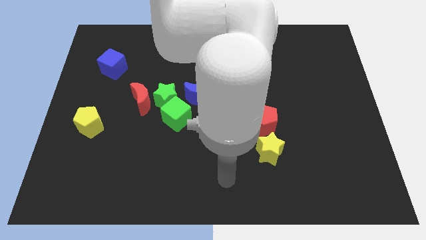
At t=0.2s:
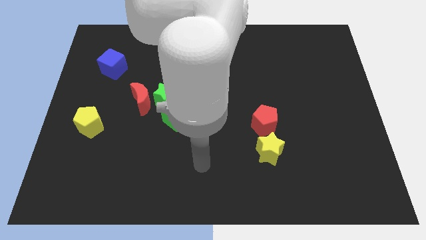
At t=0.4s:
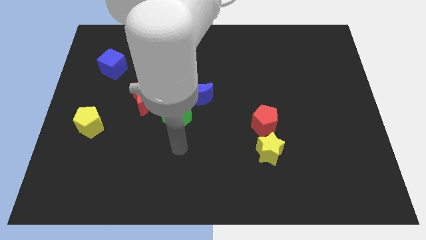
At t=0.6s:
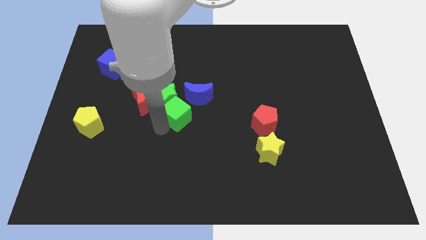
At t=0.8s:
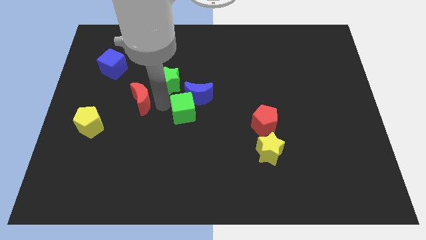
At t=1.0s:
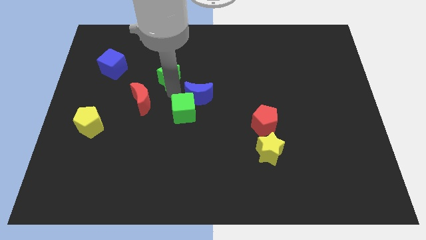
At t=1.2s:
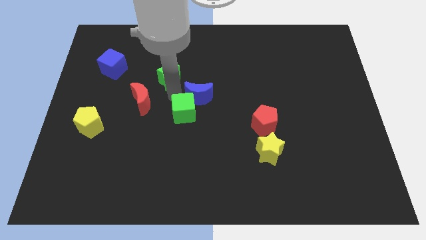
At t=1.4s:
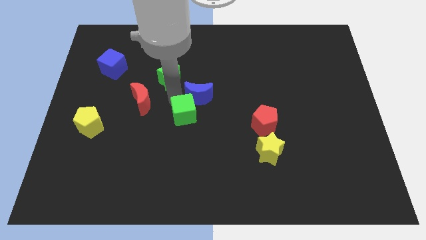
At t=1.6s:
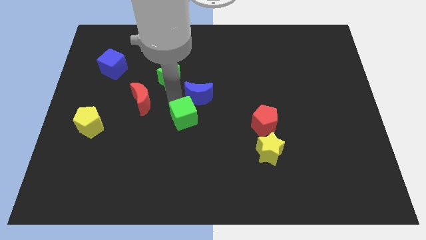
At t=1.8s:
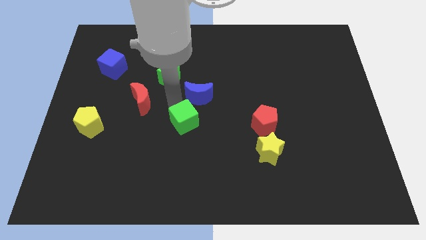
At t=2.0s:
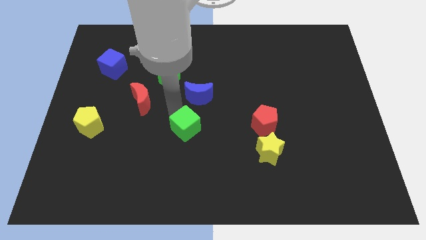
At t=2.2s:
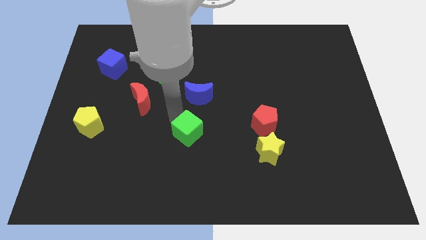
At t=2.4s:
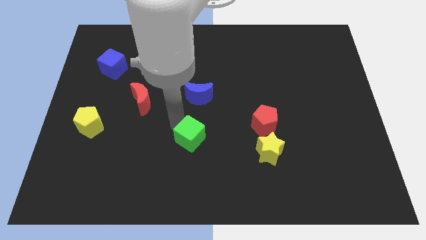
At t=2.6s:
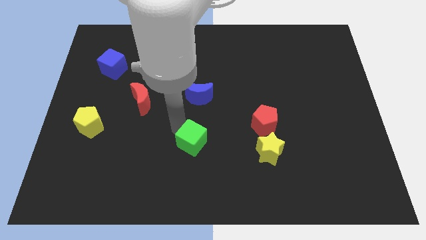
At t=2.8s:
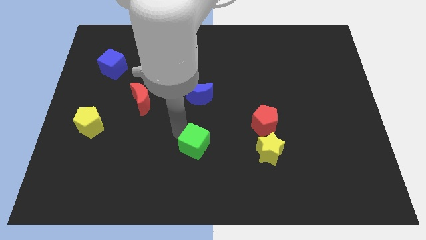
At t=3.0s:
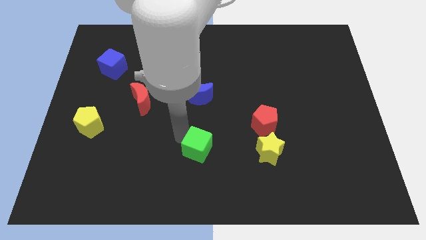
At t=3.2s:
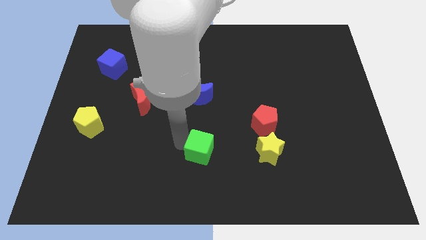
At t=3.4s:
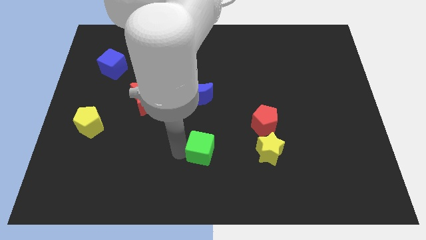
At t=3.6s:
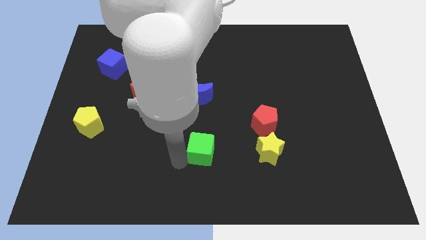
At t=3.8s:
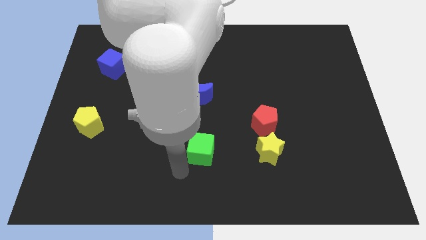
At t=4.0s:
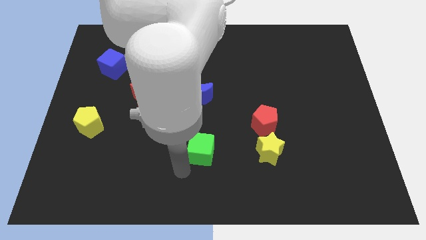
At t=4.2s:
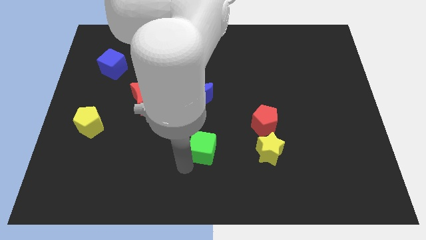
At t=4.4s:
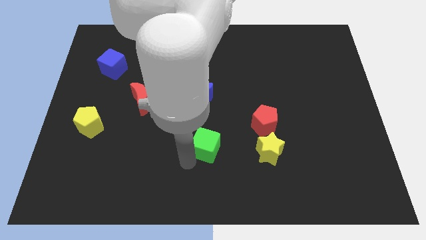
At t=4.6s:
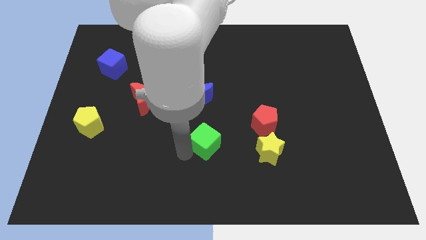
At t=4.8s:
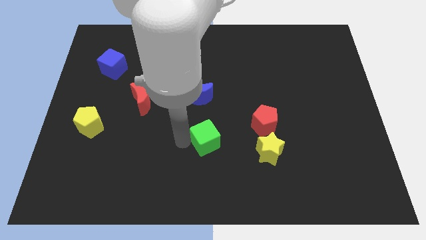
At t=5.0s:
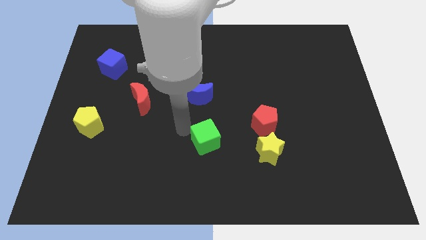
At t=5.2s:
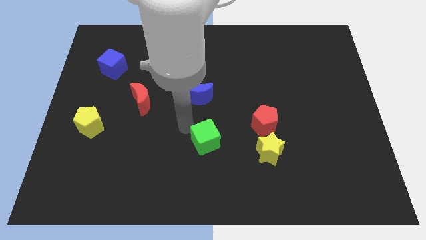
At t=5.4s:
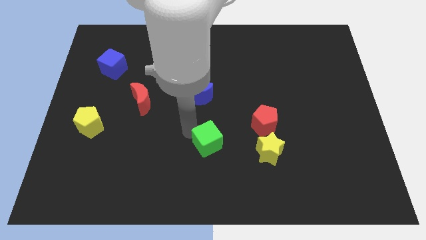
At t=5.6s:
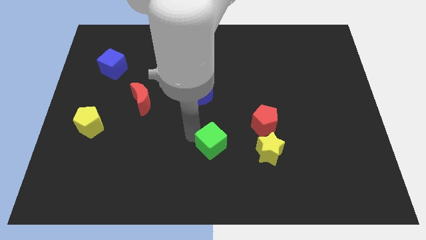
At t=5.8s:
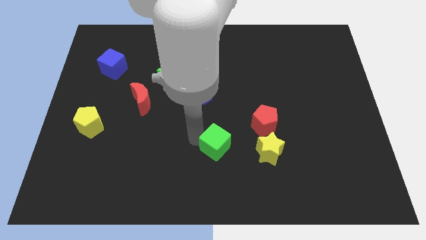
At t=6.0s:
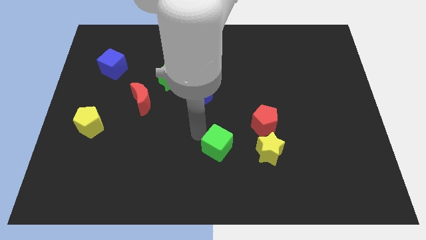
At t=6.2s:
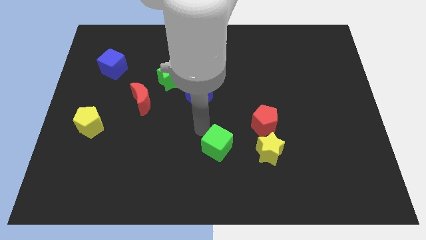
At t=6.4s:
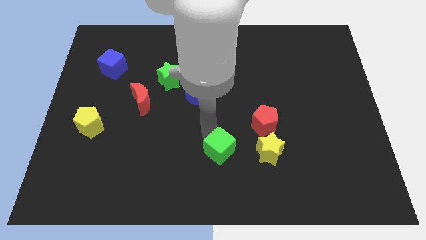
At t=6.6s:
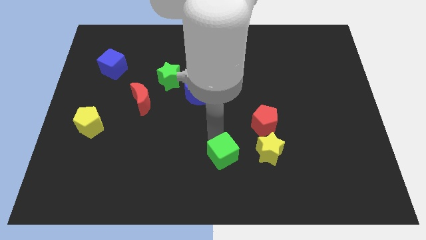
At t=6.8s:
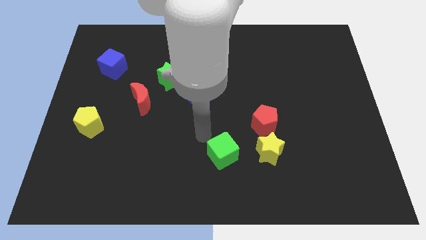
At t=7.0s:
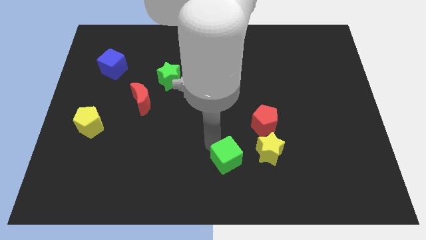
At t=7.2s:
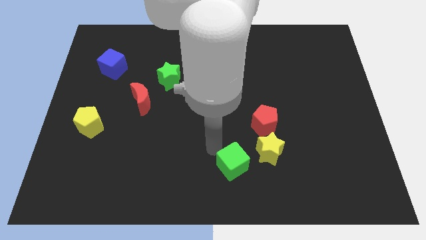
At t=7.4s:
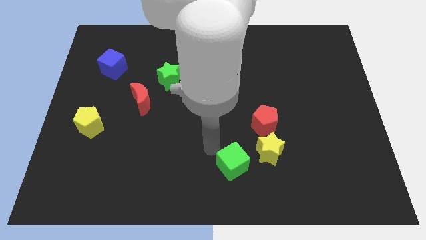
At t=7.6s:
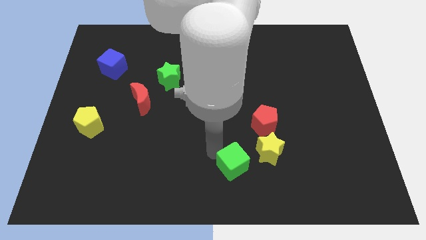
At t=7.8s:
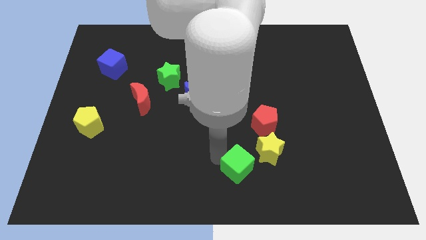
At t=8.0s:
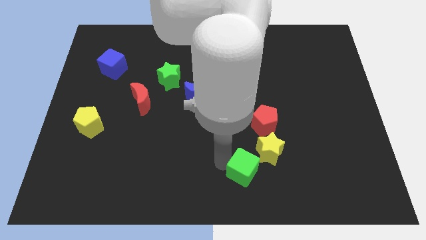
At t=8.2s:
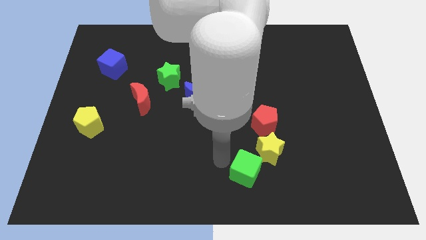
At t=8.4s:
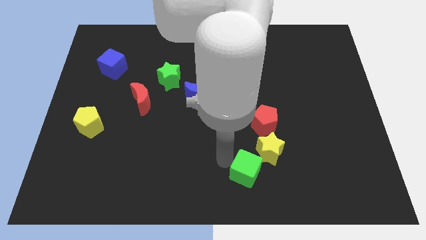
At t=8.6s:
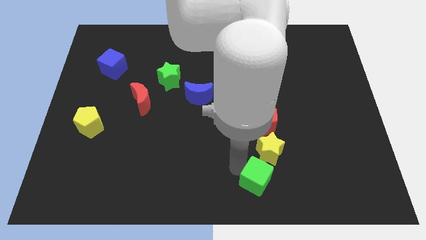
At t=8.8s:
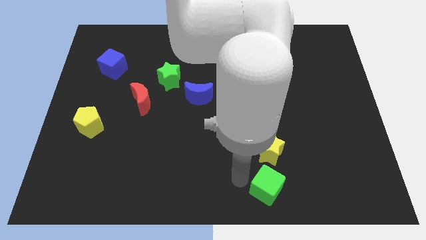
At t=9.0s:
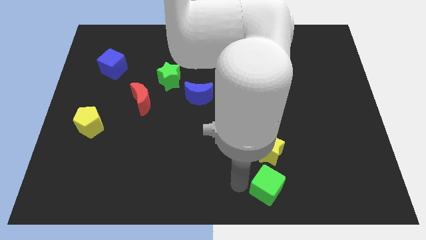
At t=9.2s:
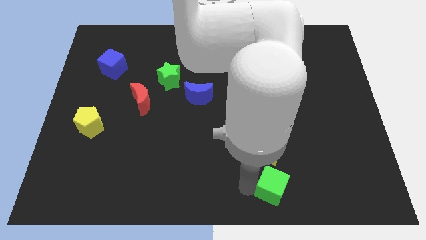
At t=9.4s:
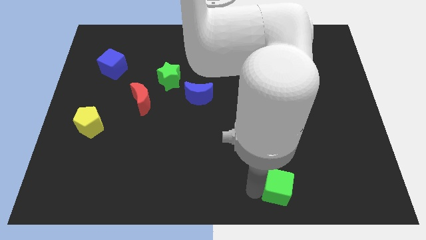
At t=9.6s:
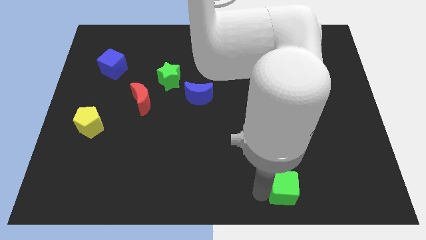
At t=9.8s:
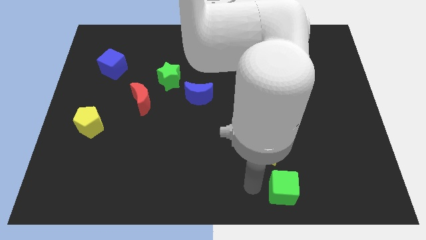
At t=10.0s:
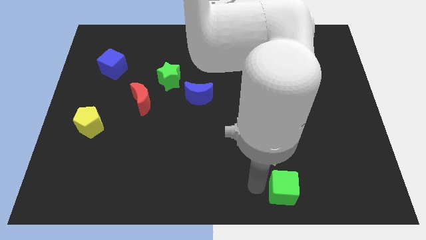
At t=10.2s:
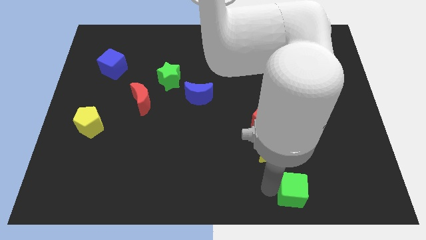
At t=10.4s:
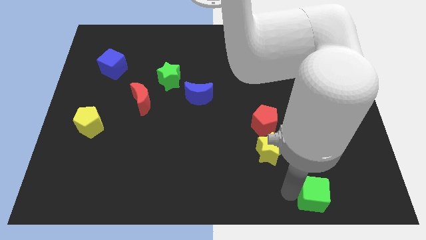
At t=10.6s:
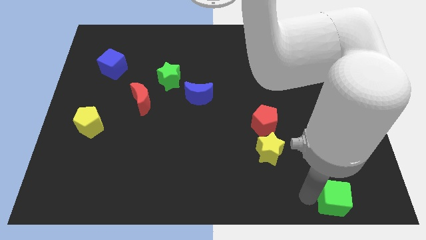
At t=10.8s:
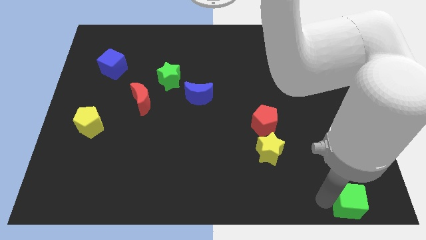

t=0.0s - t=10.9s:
push the green cube to the bottom right
